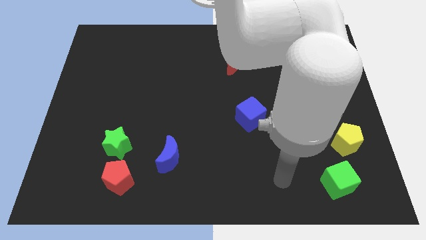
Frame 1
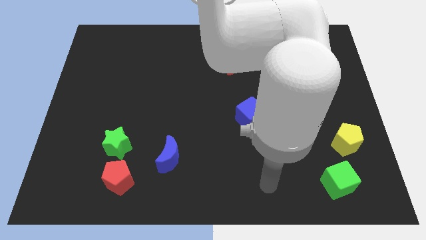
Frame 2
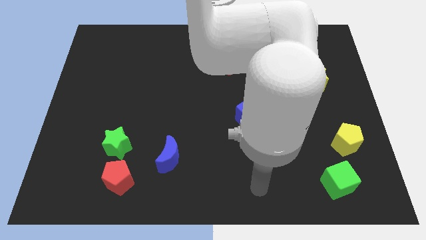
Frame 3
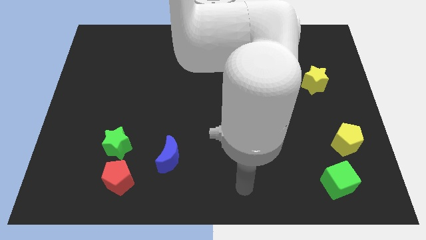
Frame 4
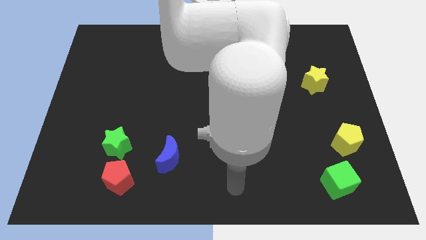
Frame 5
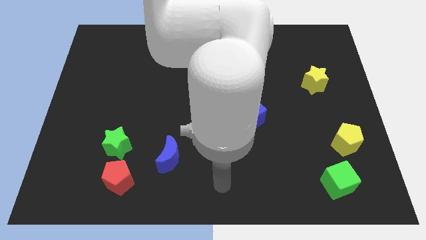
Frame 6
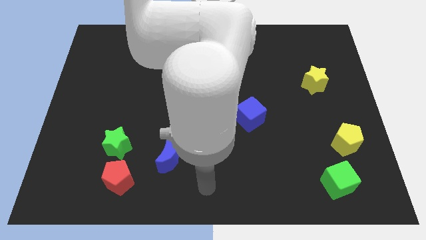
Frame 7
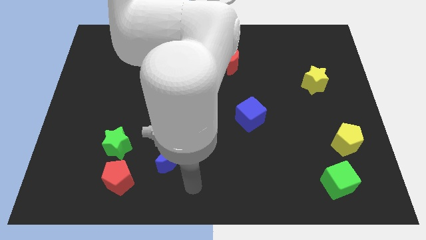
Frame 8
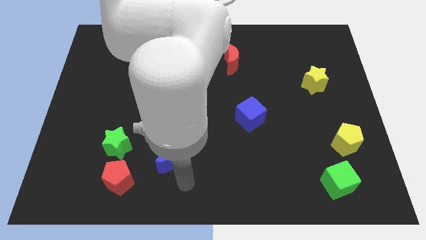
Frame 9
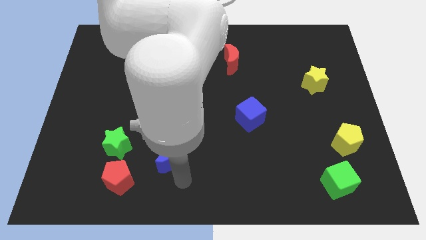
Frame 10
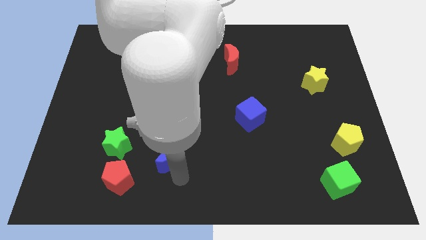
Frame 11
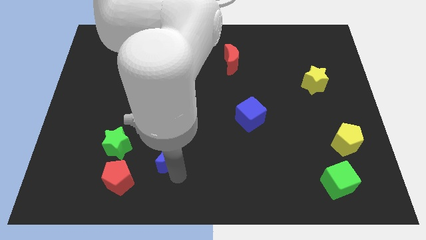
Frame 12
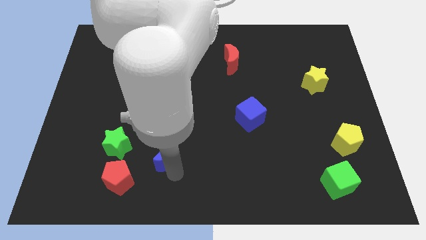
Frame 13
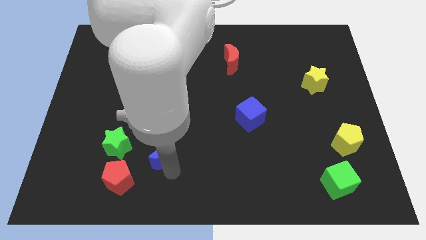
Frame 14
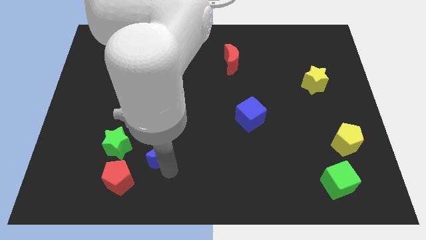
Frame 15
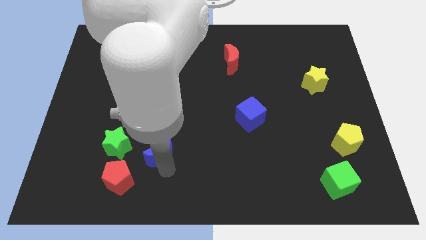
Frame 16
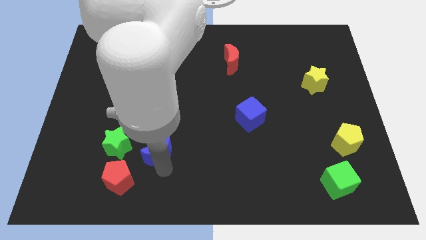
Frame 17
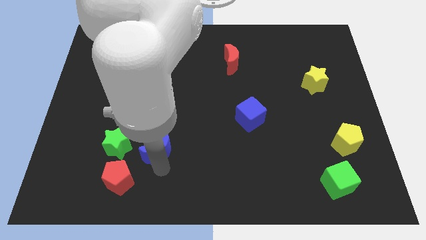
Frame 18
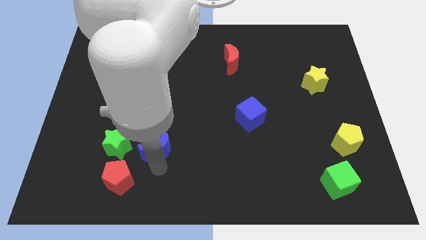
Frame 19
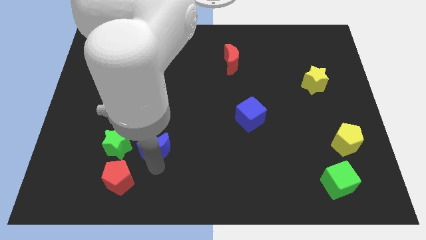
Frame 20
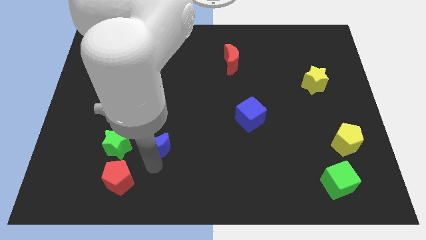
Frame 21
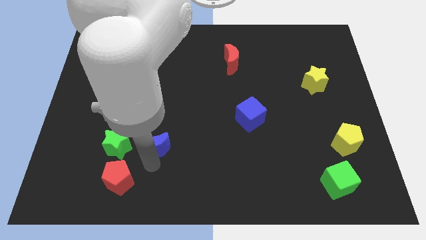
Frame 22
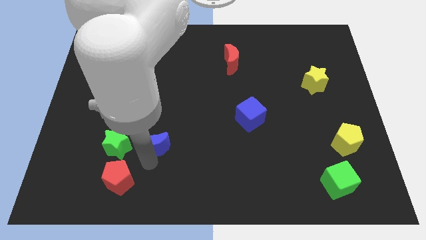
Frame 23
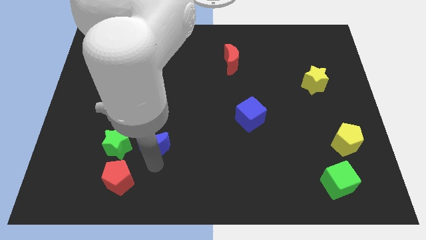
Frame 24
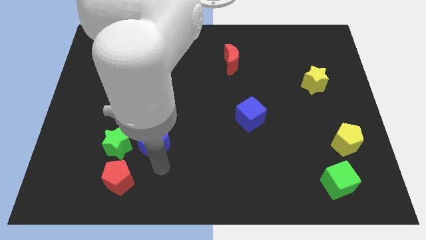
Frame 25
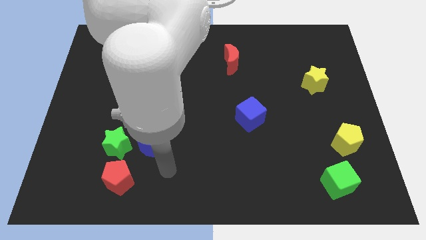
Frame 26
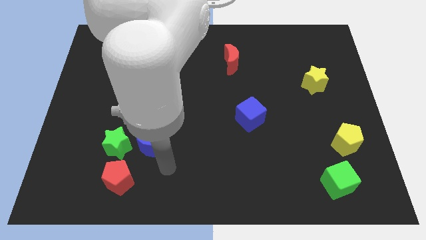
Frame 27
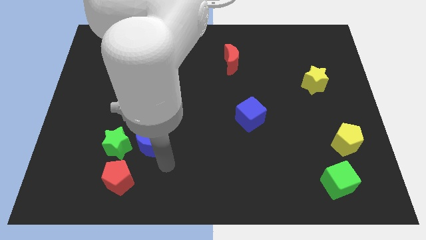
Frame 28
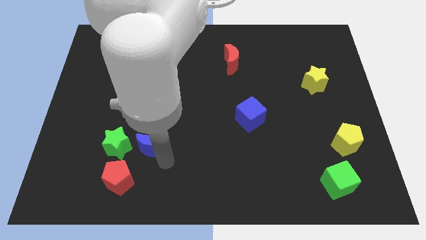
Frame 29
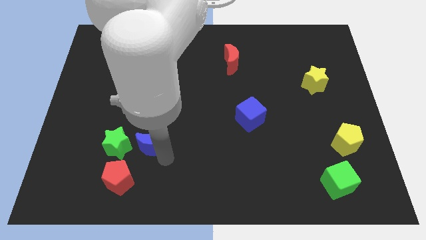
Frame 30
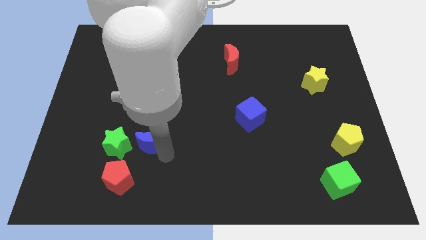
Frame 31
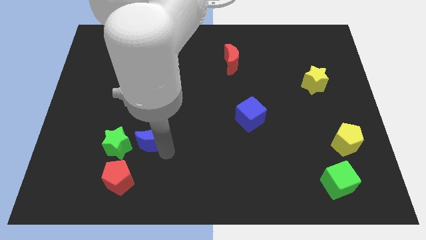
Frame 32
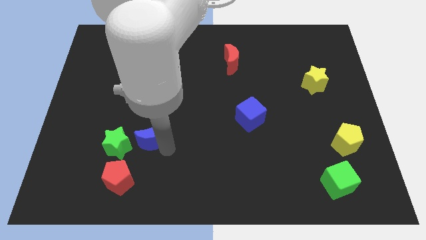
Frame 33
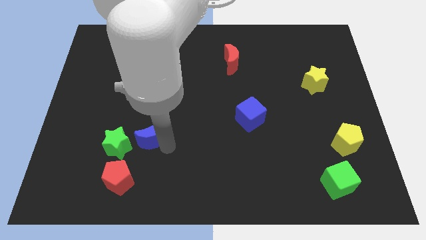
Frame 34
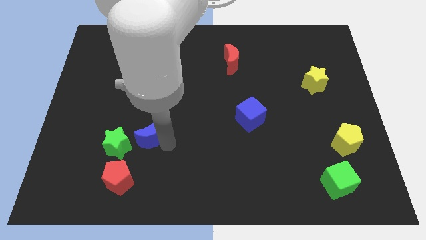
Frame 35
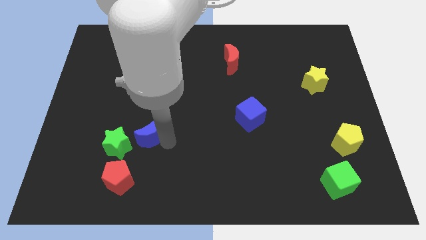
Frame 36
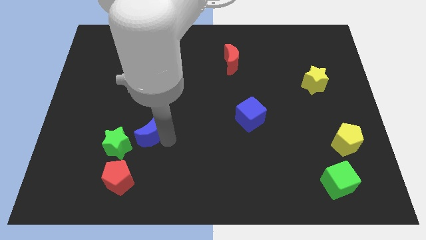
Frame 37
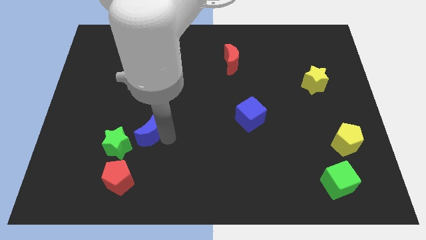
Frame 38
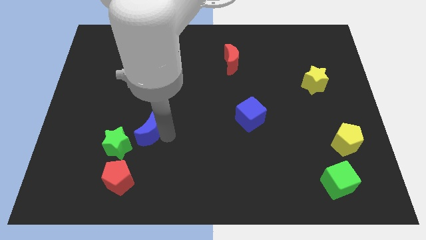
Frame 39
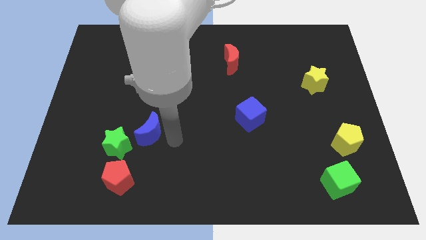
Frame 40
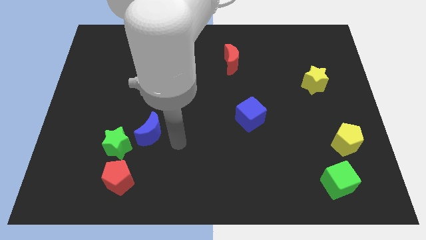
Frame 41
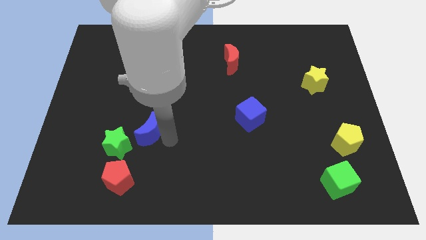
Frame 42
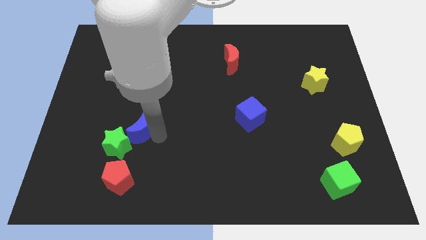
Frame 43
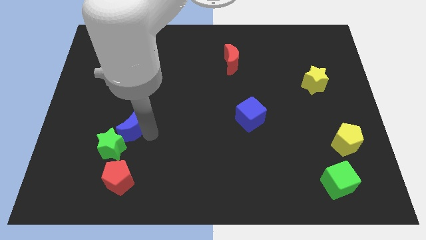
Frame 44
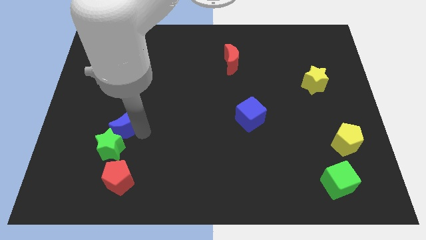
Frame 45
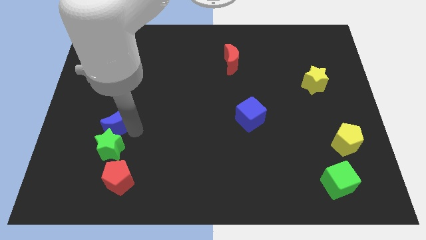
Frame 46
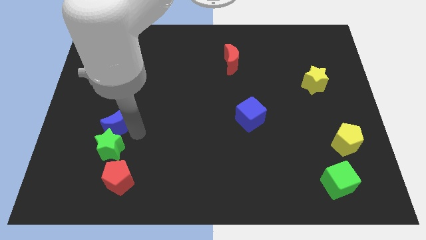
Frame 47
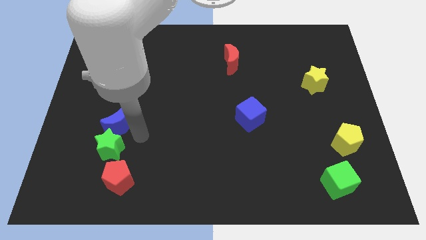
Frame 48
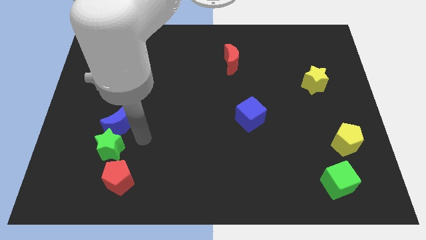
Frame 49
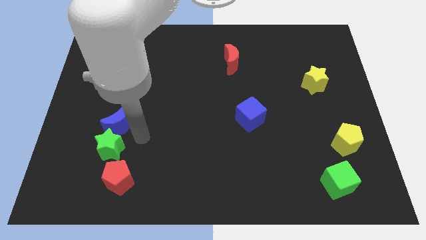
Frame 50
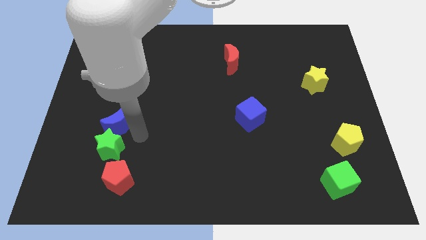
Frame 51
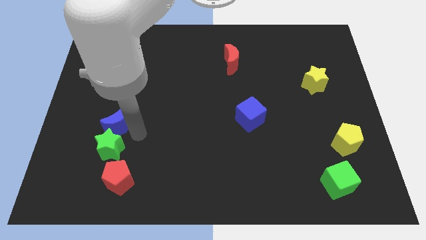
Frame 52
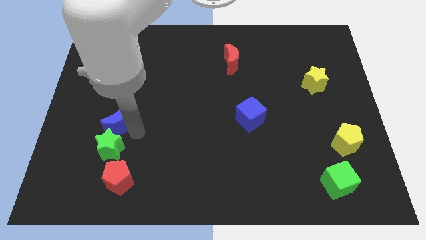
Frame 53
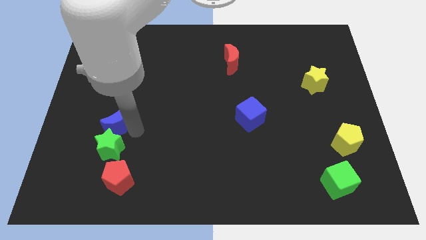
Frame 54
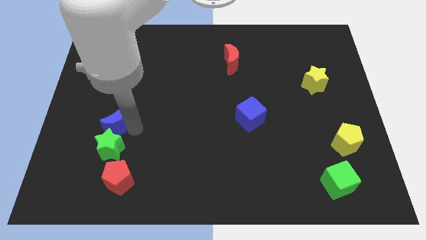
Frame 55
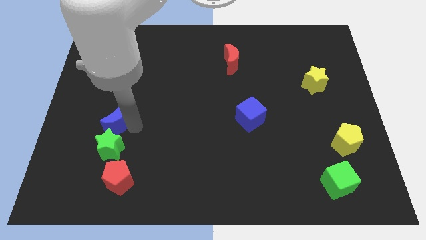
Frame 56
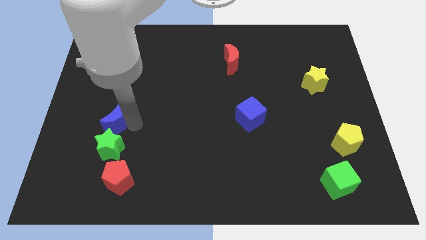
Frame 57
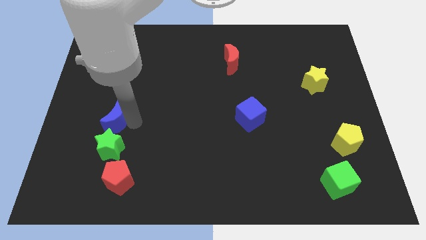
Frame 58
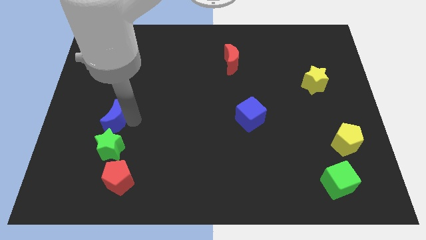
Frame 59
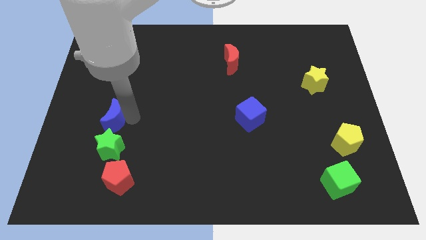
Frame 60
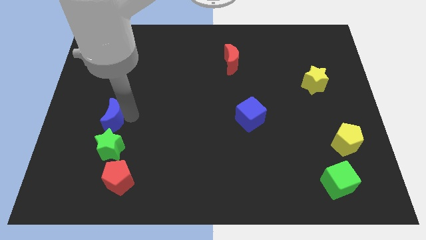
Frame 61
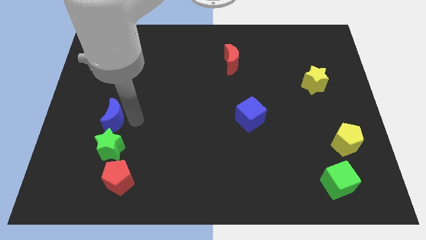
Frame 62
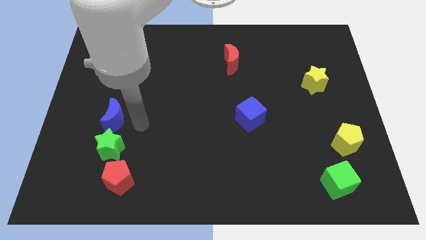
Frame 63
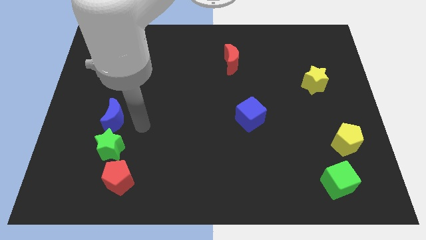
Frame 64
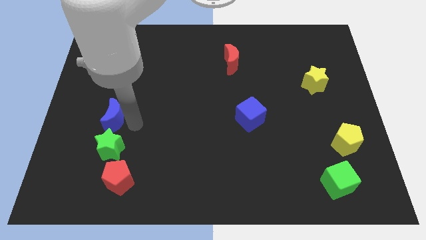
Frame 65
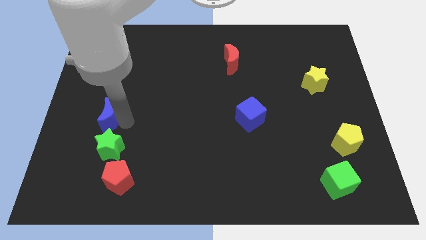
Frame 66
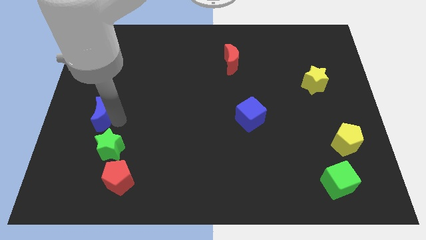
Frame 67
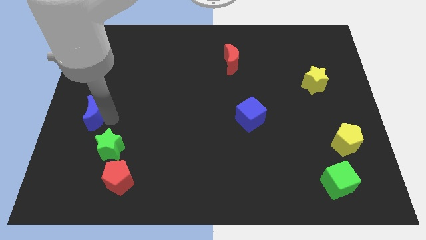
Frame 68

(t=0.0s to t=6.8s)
put the blue moon to the left side
